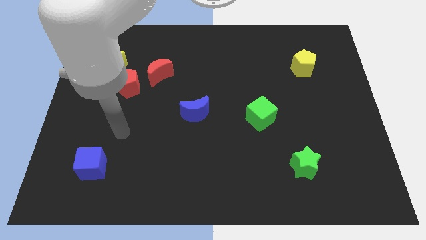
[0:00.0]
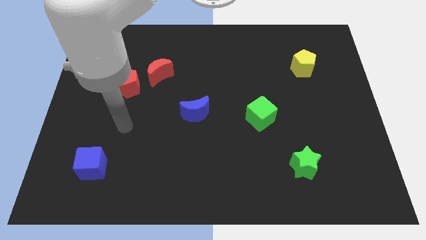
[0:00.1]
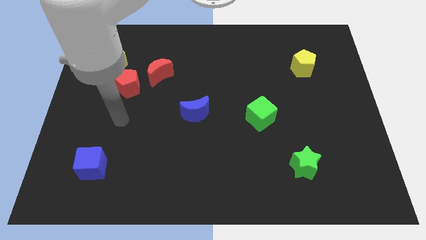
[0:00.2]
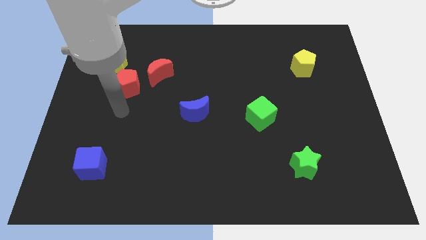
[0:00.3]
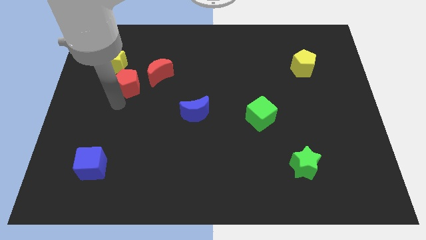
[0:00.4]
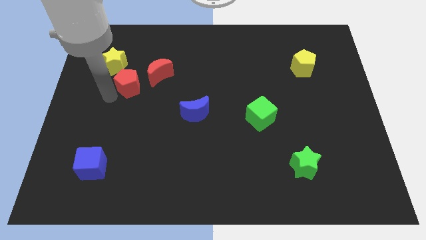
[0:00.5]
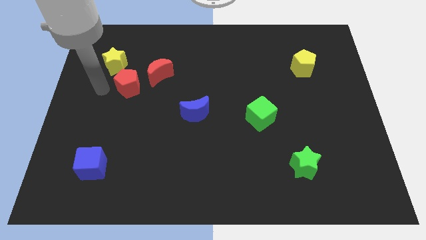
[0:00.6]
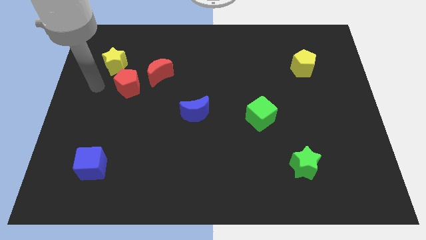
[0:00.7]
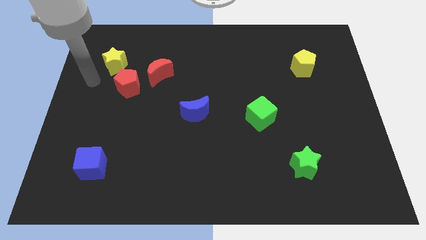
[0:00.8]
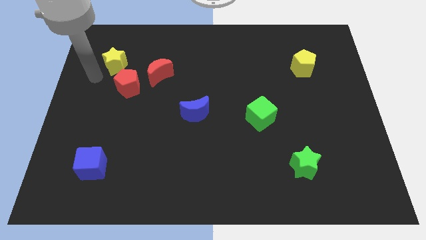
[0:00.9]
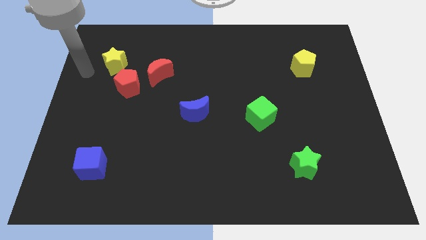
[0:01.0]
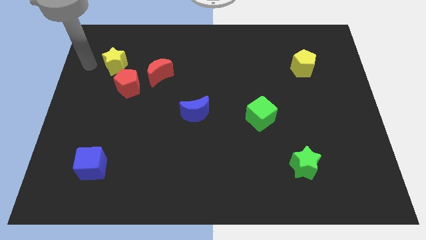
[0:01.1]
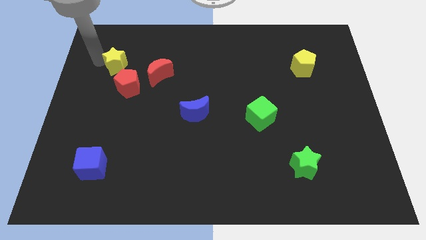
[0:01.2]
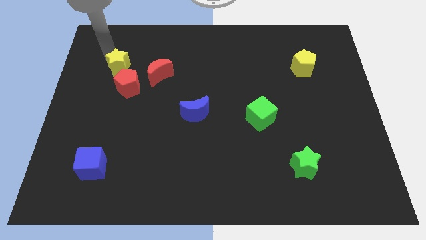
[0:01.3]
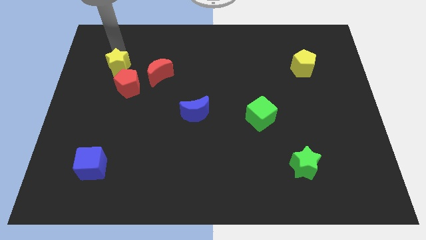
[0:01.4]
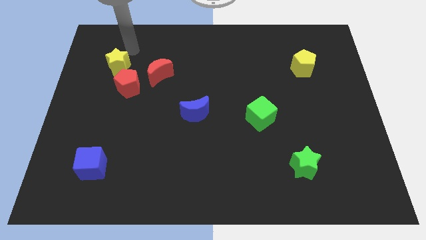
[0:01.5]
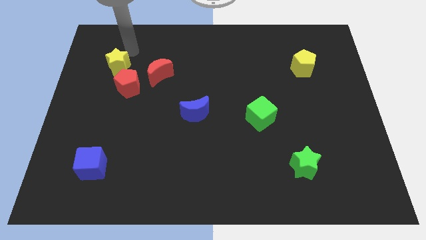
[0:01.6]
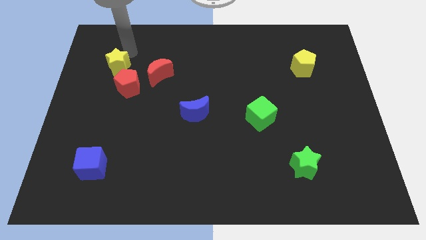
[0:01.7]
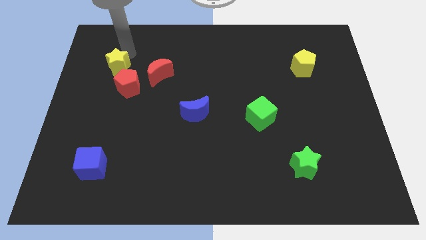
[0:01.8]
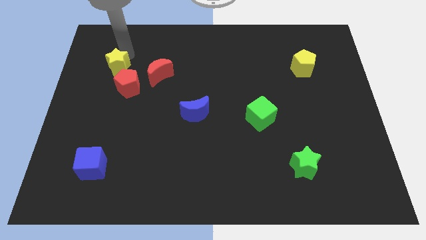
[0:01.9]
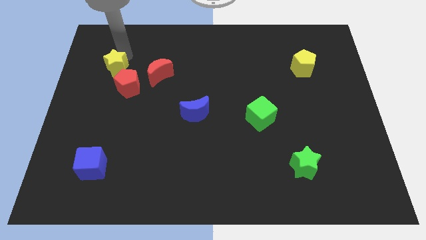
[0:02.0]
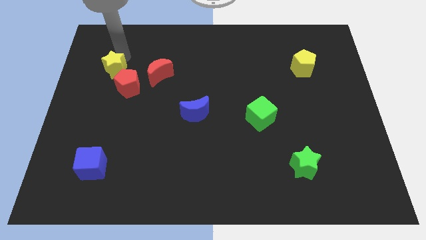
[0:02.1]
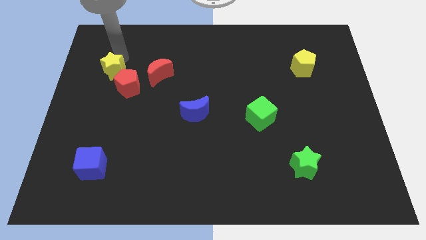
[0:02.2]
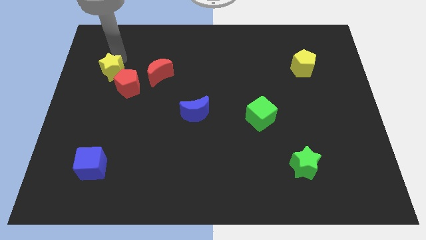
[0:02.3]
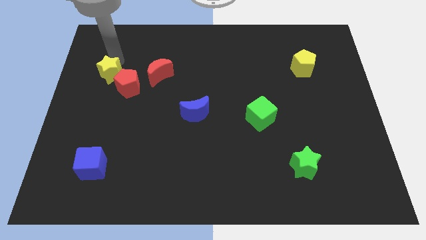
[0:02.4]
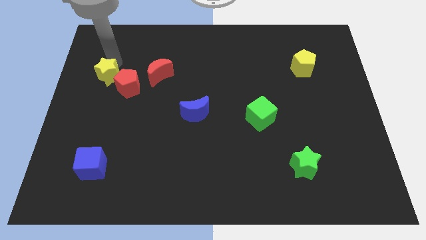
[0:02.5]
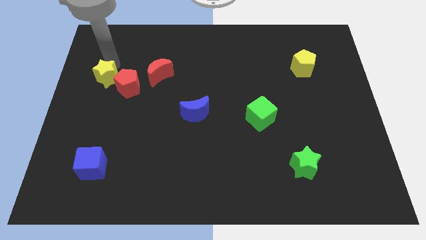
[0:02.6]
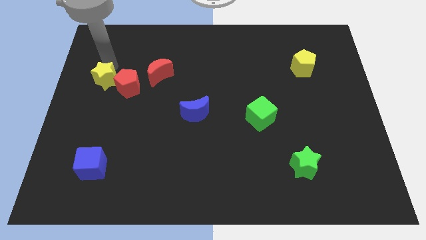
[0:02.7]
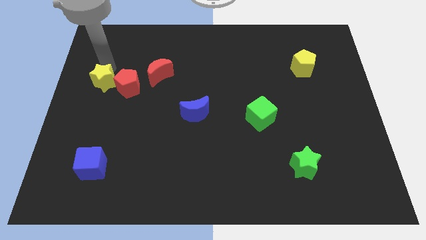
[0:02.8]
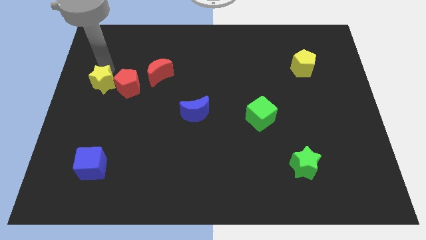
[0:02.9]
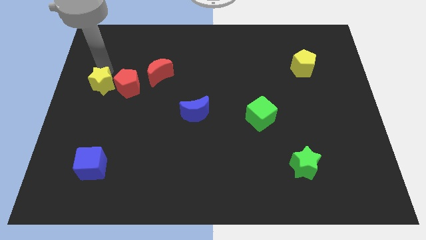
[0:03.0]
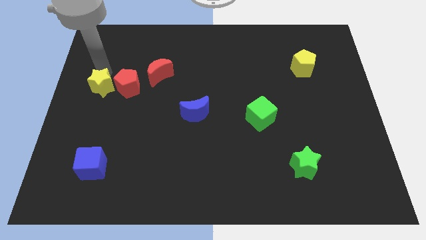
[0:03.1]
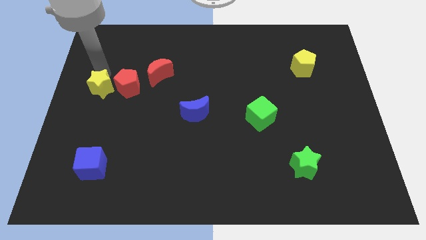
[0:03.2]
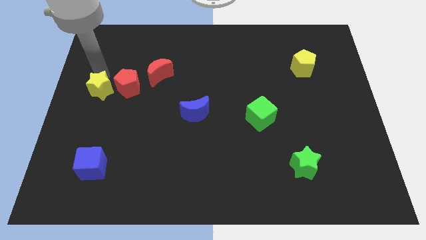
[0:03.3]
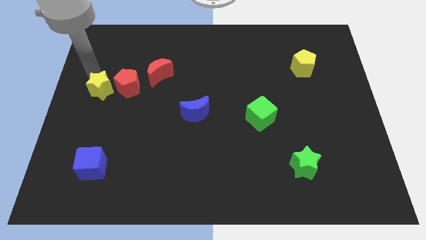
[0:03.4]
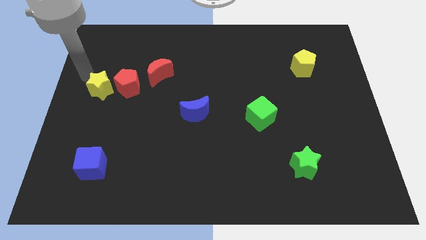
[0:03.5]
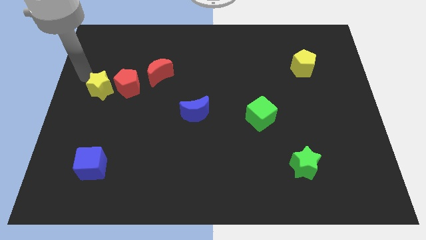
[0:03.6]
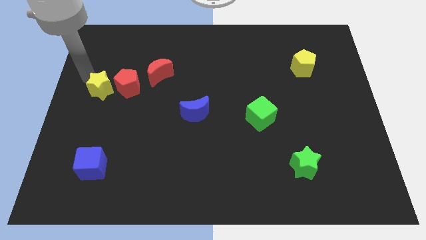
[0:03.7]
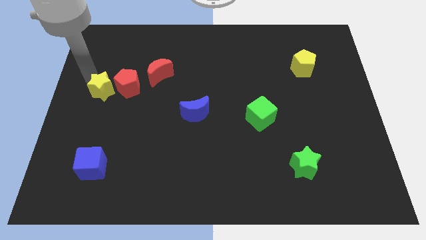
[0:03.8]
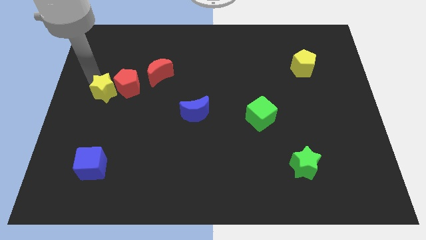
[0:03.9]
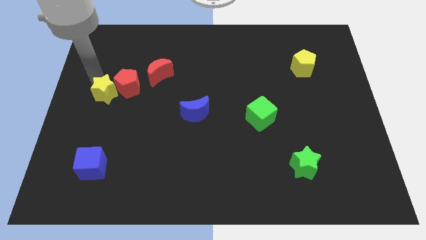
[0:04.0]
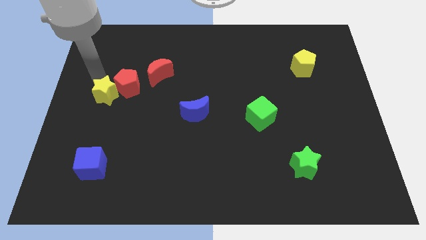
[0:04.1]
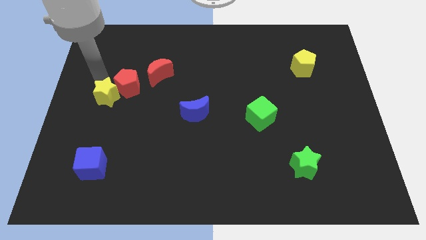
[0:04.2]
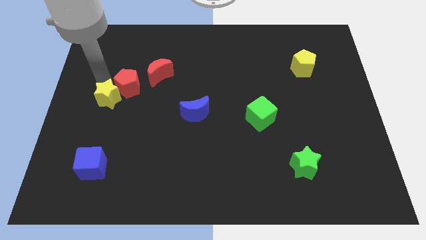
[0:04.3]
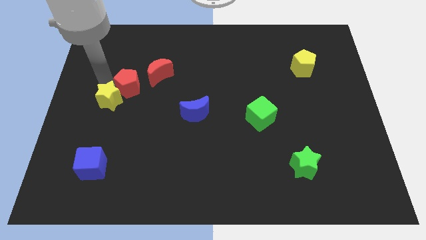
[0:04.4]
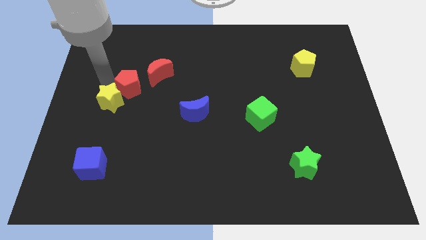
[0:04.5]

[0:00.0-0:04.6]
push the yellow star somewhat downwards and then to the right

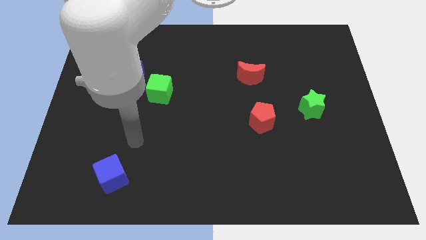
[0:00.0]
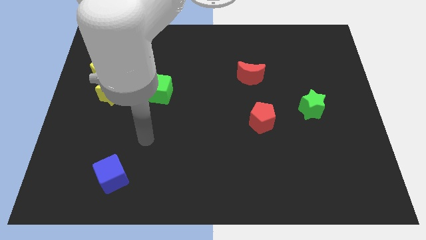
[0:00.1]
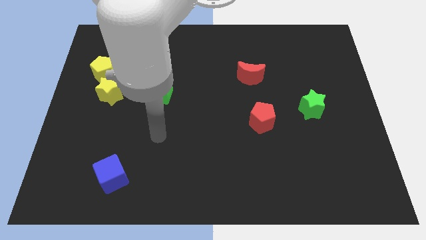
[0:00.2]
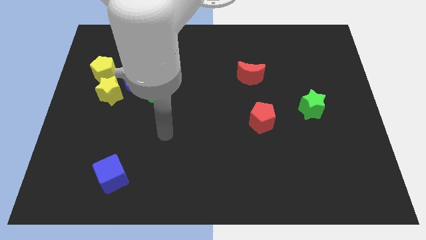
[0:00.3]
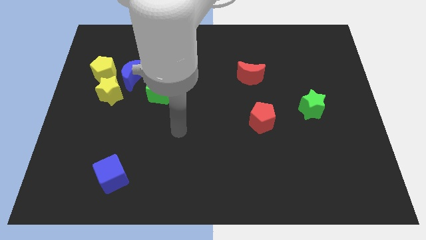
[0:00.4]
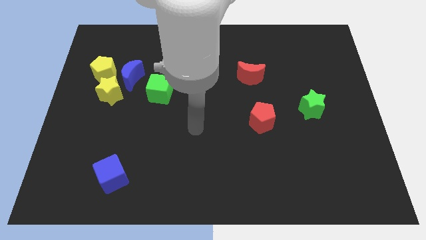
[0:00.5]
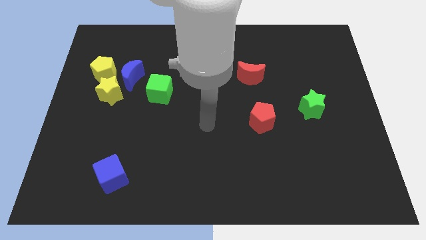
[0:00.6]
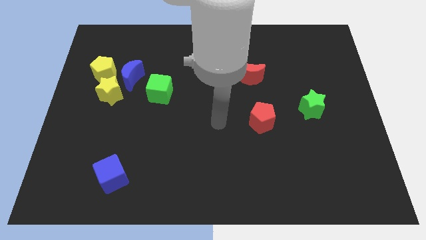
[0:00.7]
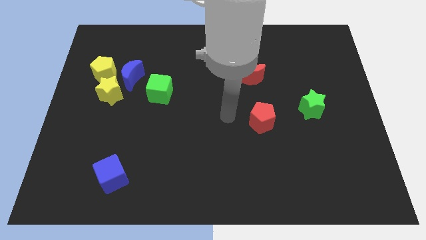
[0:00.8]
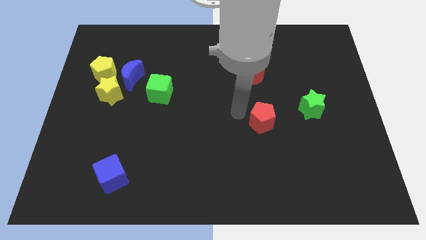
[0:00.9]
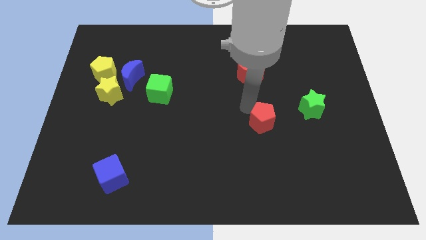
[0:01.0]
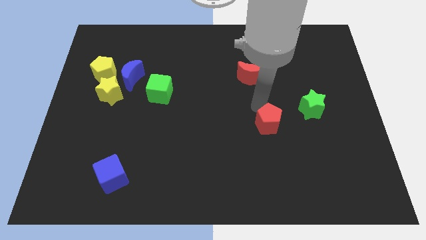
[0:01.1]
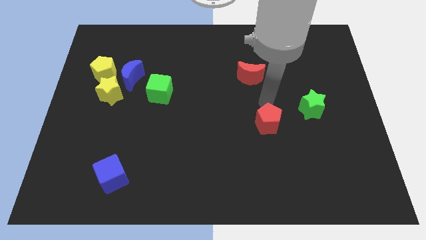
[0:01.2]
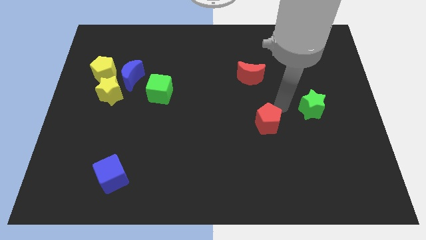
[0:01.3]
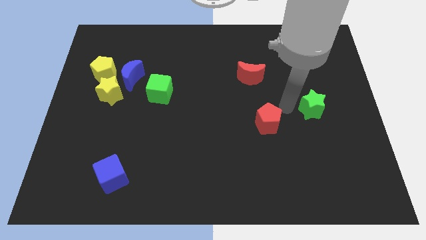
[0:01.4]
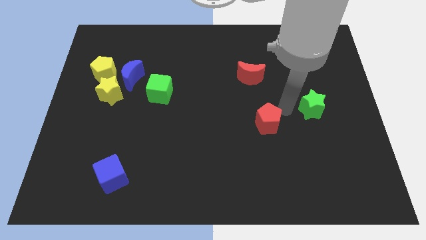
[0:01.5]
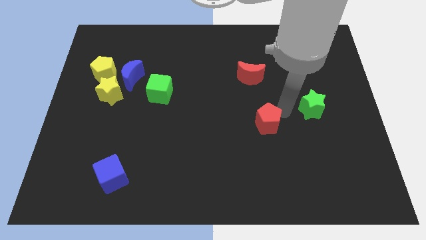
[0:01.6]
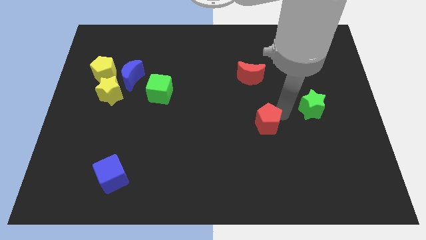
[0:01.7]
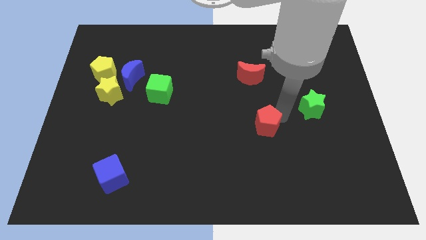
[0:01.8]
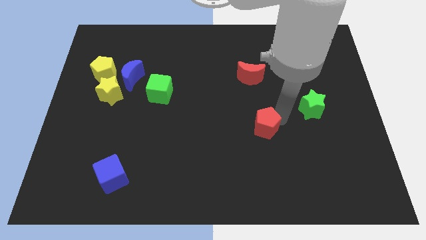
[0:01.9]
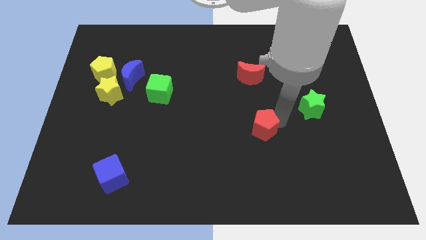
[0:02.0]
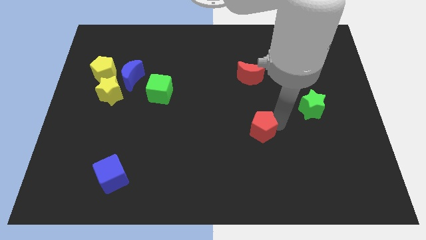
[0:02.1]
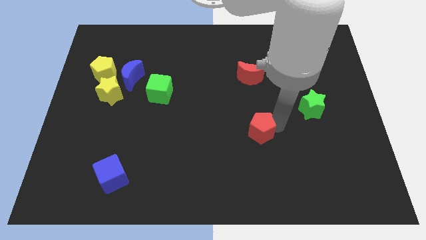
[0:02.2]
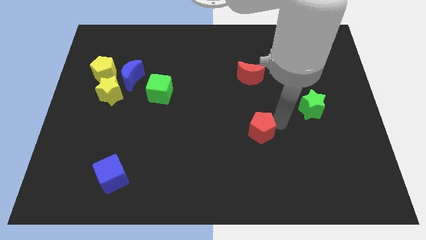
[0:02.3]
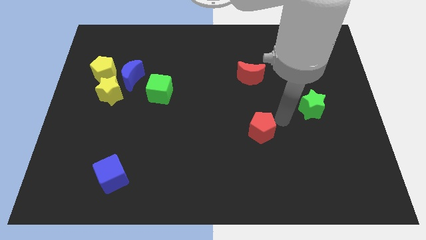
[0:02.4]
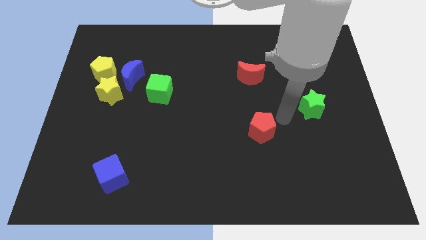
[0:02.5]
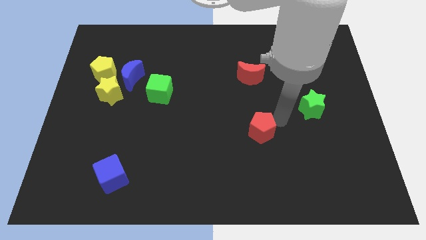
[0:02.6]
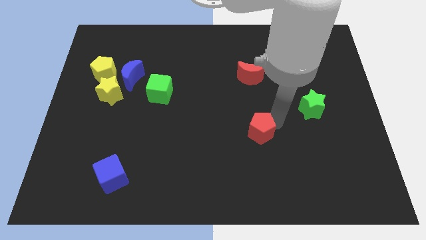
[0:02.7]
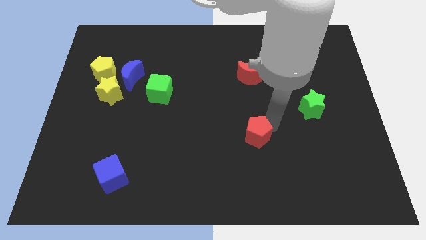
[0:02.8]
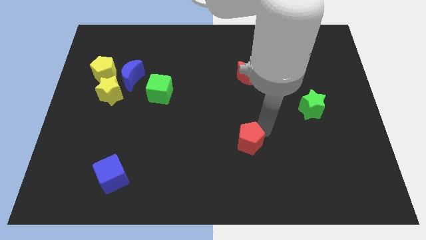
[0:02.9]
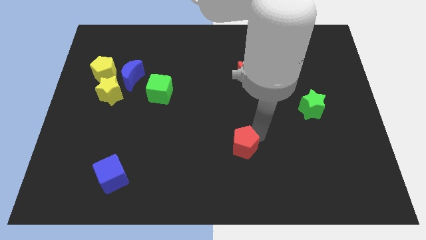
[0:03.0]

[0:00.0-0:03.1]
move the red pentagon a little down and to the left diagonally

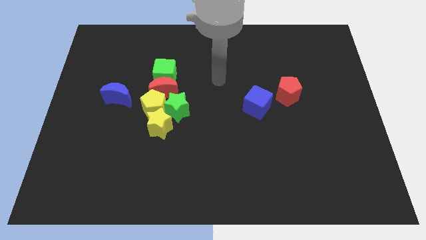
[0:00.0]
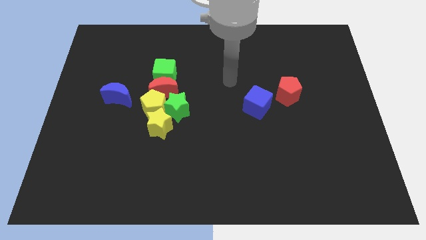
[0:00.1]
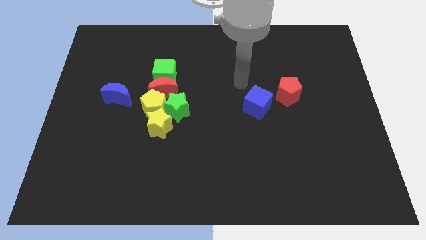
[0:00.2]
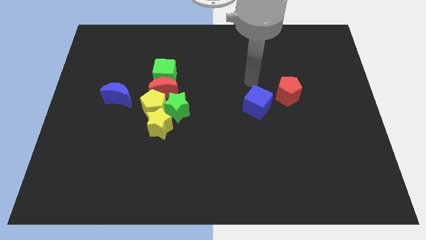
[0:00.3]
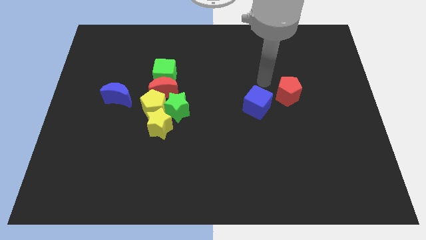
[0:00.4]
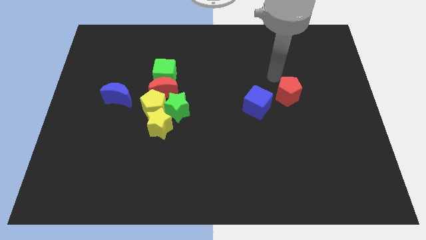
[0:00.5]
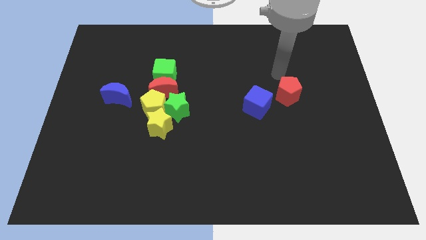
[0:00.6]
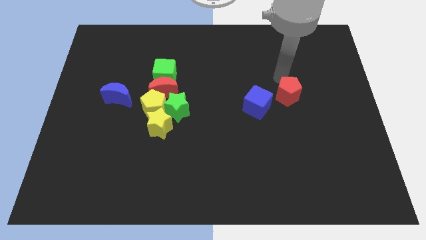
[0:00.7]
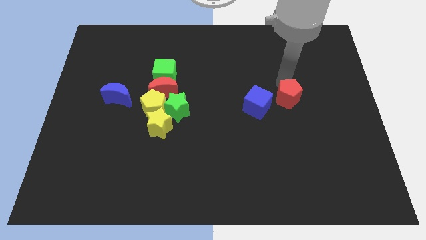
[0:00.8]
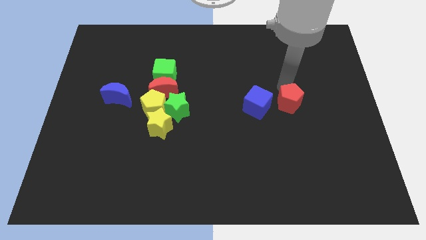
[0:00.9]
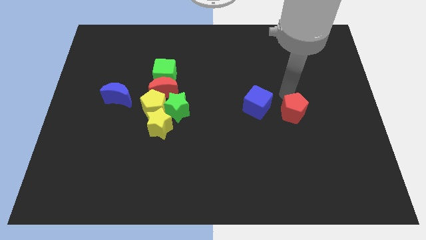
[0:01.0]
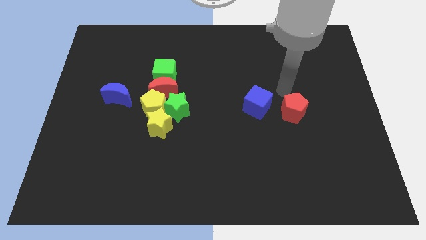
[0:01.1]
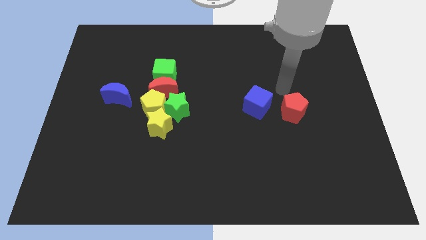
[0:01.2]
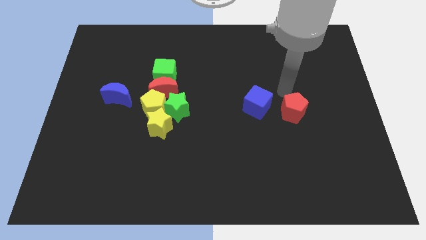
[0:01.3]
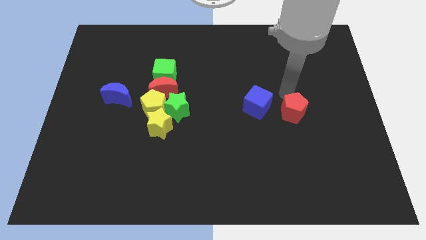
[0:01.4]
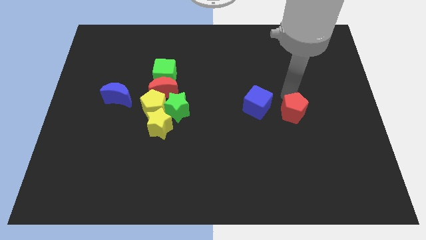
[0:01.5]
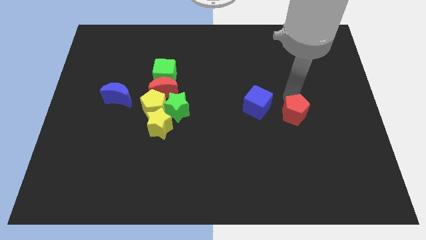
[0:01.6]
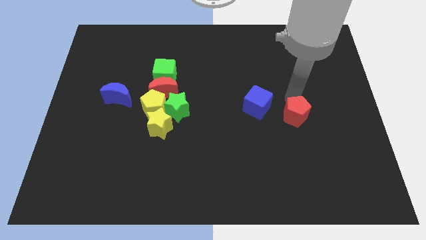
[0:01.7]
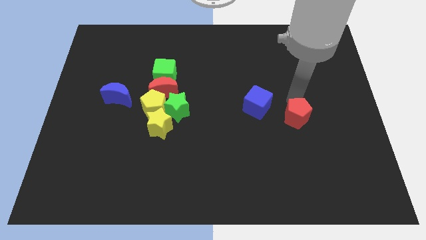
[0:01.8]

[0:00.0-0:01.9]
slide the red pentagon down slightly
